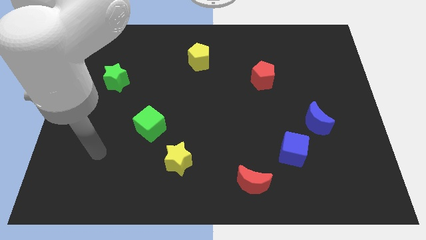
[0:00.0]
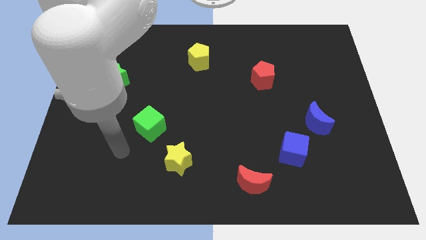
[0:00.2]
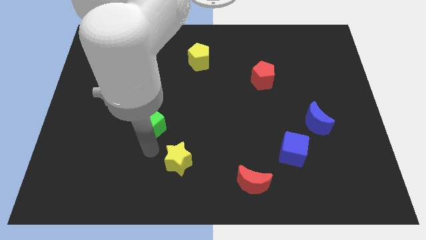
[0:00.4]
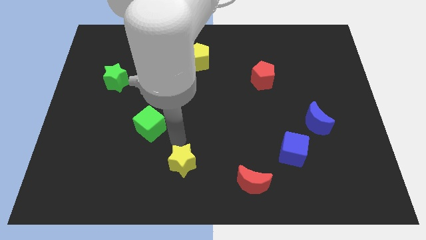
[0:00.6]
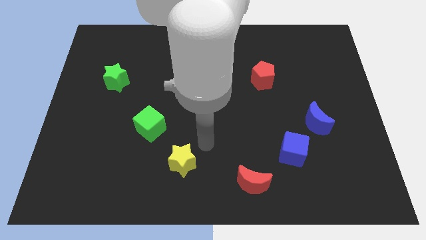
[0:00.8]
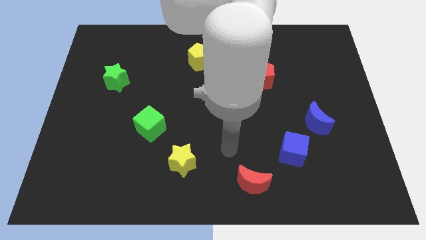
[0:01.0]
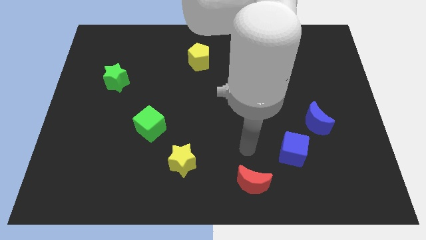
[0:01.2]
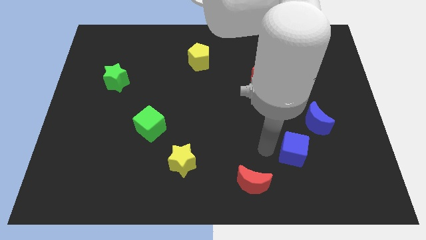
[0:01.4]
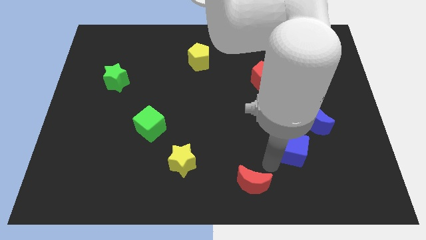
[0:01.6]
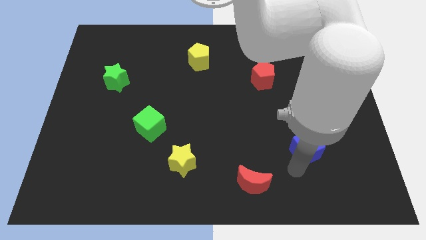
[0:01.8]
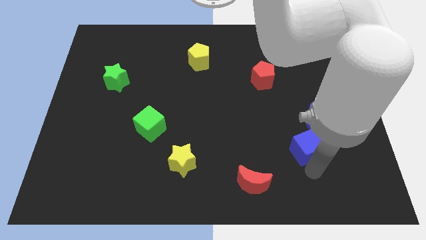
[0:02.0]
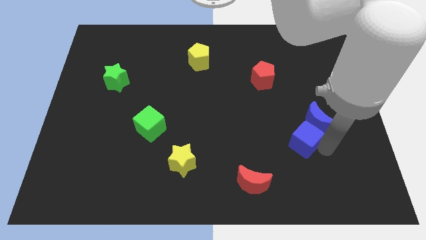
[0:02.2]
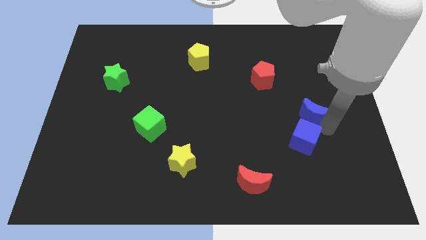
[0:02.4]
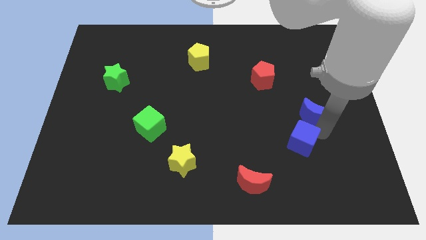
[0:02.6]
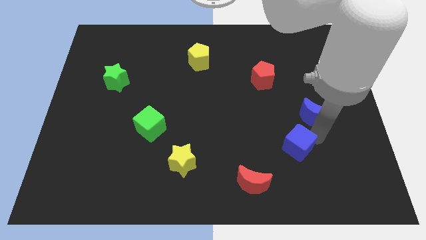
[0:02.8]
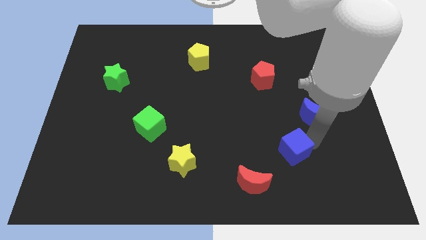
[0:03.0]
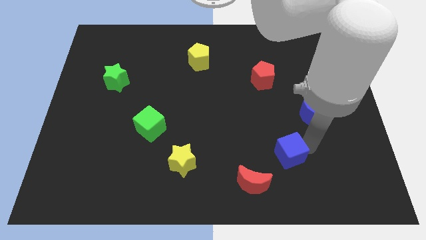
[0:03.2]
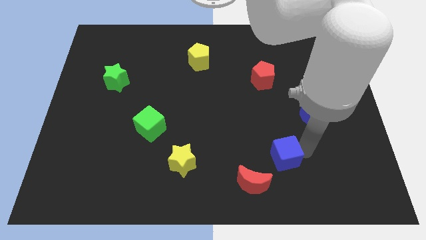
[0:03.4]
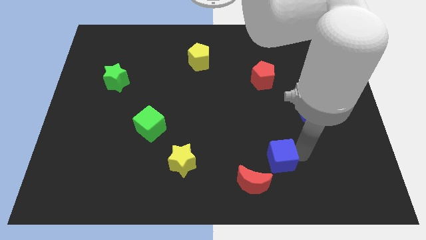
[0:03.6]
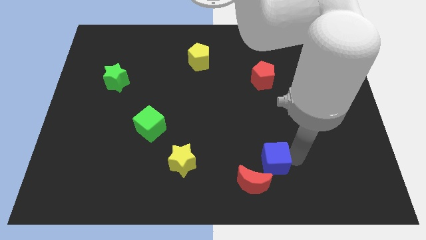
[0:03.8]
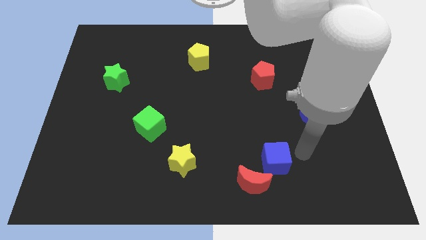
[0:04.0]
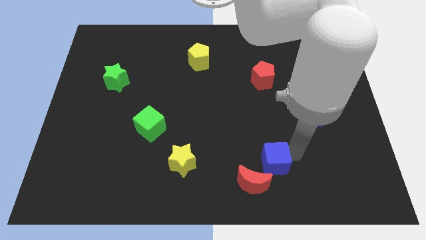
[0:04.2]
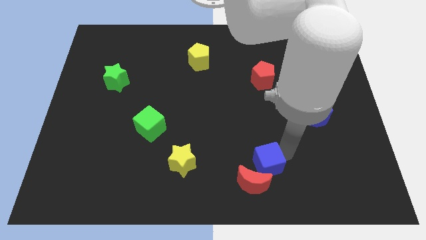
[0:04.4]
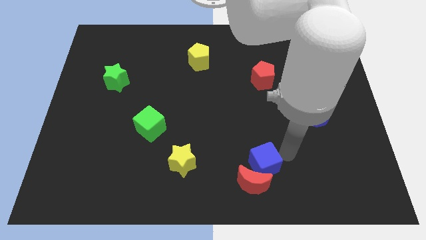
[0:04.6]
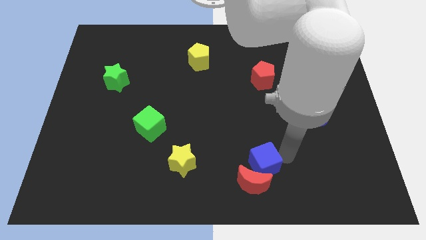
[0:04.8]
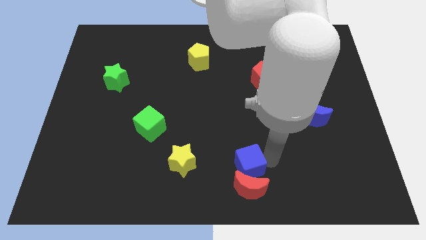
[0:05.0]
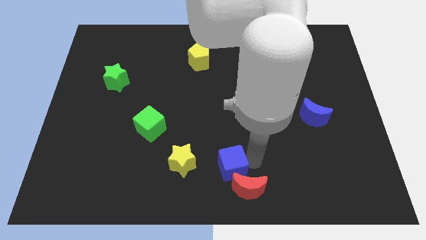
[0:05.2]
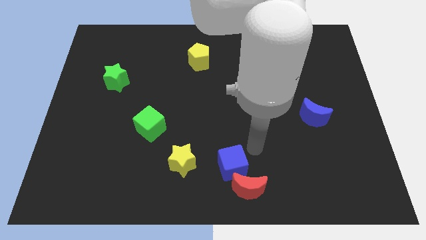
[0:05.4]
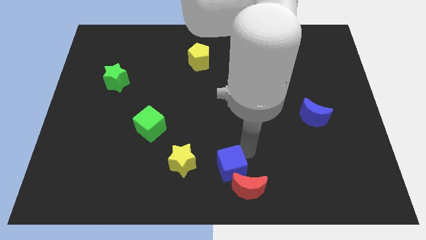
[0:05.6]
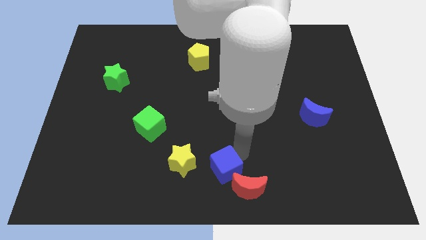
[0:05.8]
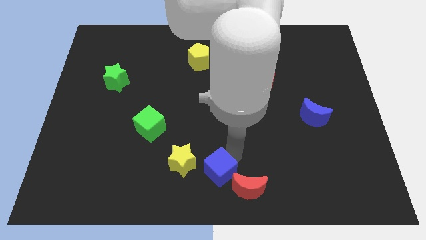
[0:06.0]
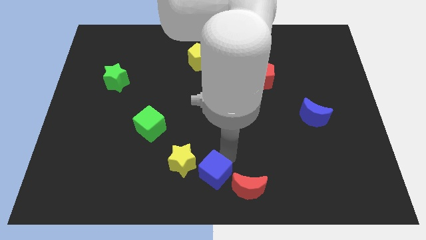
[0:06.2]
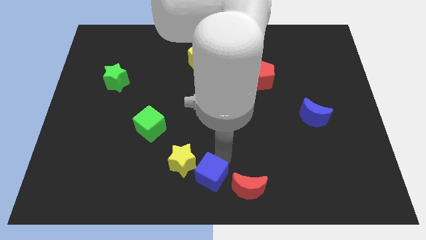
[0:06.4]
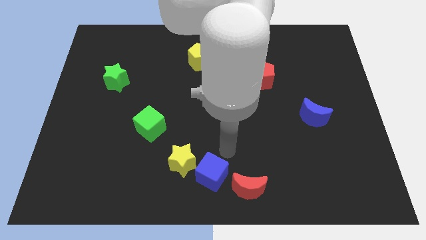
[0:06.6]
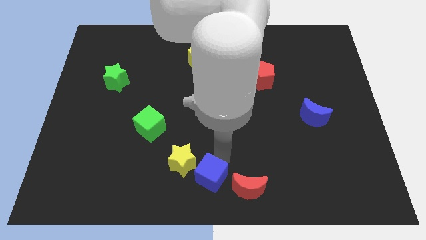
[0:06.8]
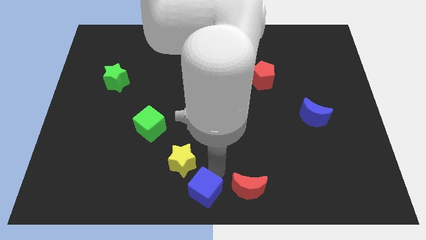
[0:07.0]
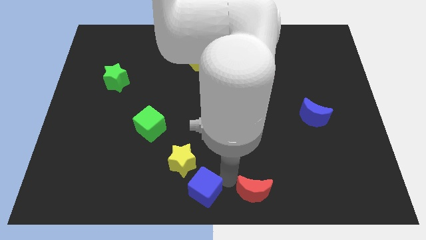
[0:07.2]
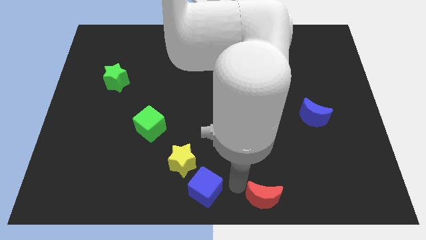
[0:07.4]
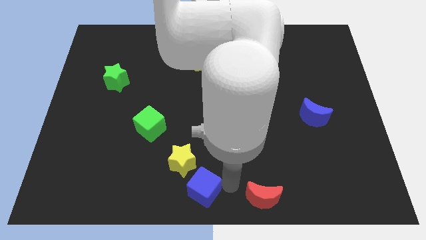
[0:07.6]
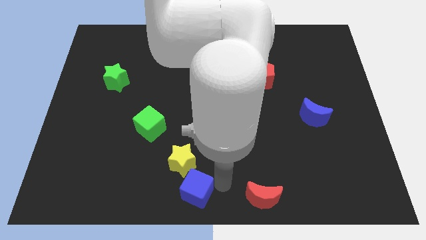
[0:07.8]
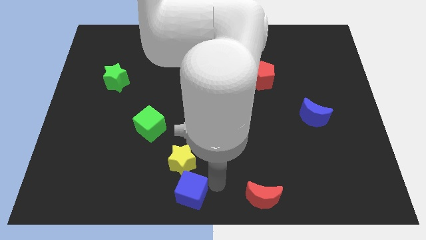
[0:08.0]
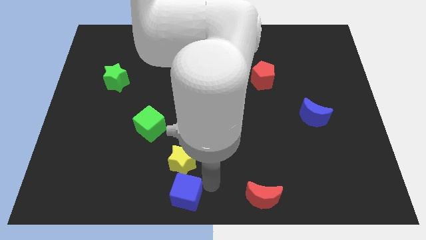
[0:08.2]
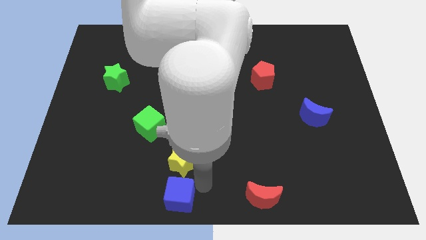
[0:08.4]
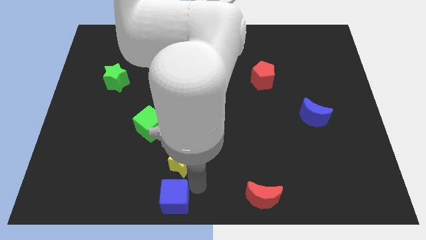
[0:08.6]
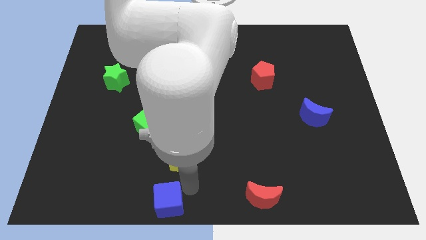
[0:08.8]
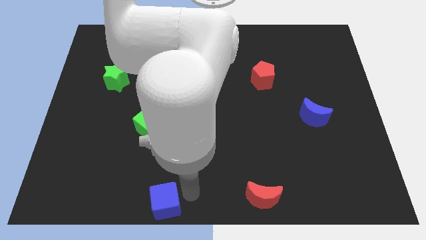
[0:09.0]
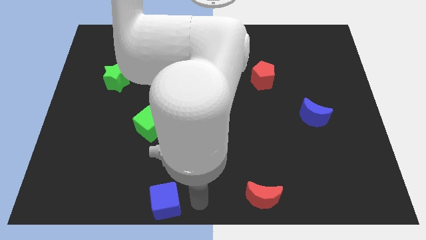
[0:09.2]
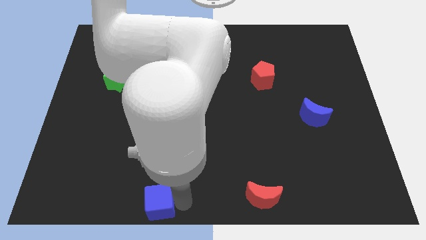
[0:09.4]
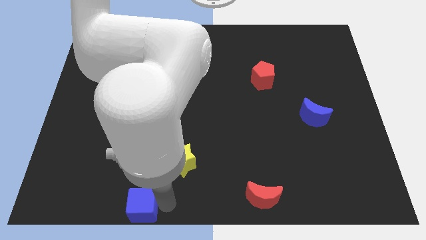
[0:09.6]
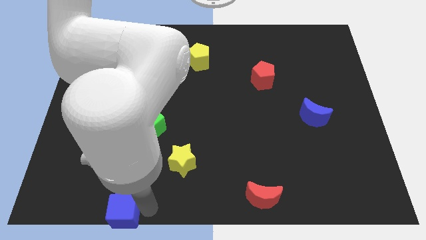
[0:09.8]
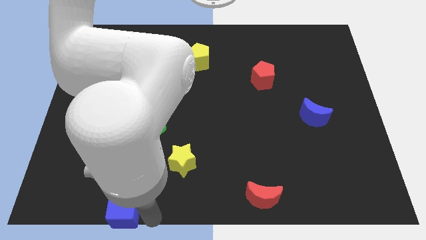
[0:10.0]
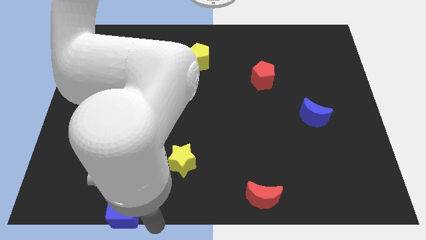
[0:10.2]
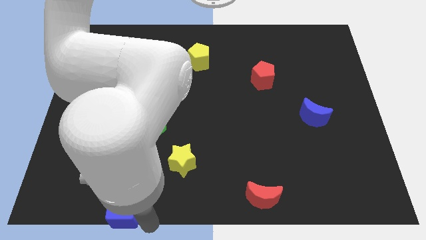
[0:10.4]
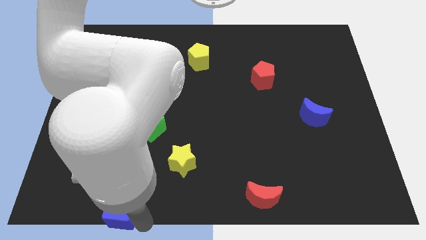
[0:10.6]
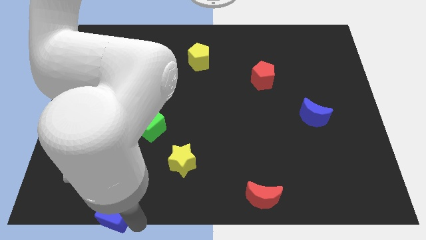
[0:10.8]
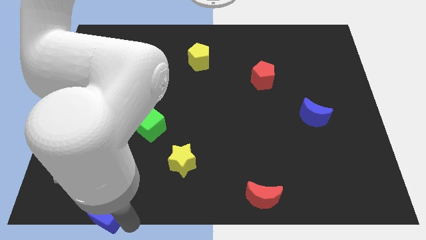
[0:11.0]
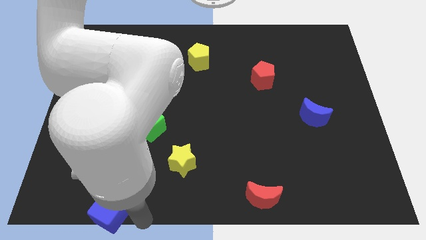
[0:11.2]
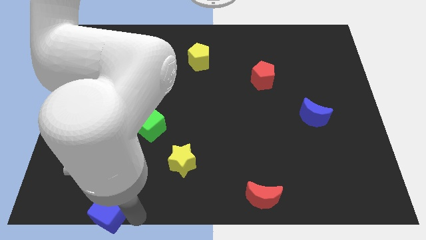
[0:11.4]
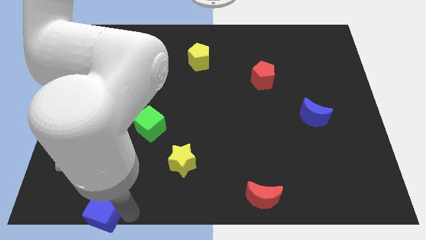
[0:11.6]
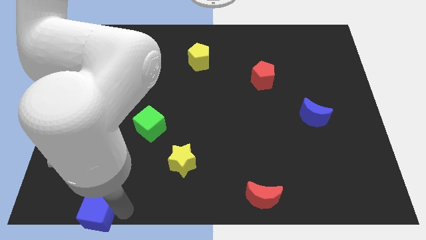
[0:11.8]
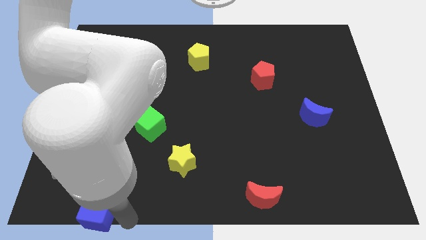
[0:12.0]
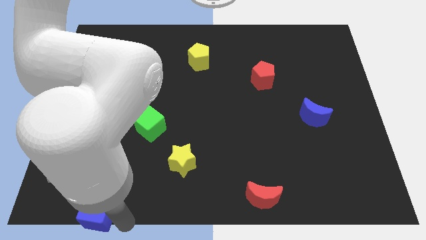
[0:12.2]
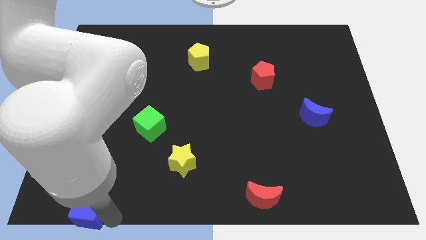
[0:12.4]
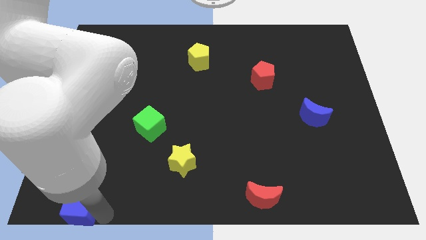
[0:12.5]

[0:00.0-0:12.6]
push the blue cube to the bottom left corner
